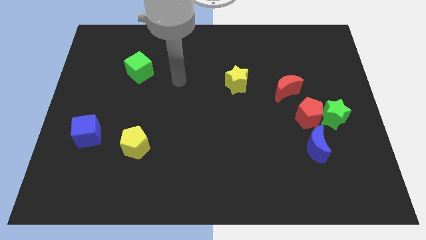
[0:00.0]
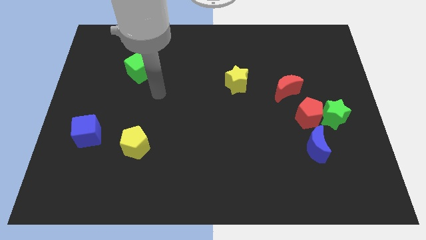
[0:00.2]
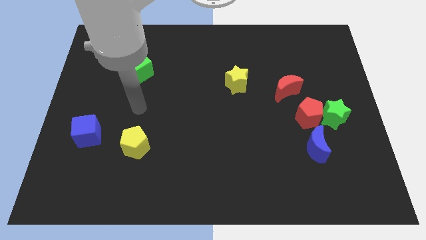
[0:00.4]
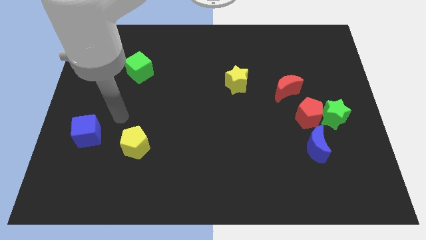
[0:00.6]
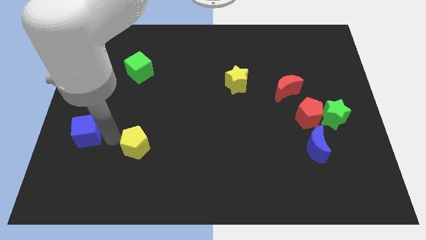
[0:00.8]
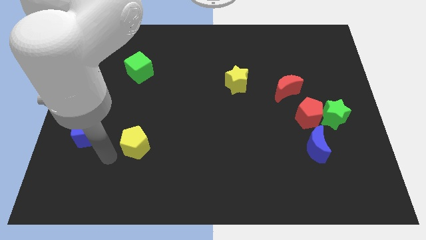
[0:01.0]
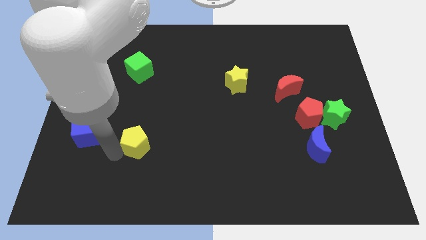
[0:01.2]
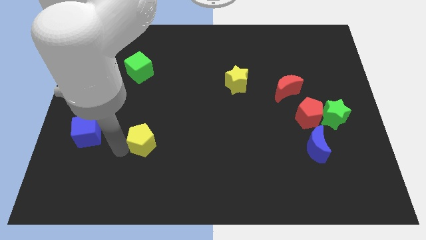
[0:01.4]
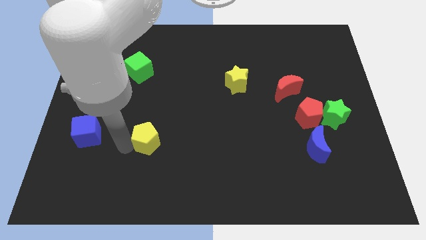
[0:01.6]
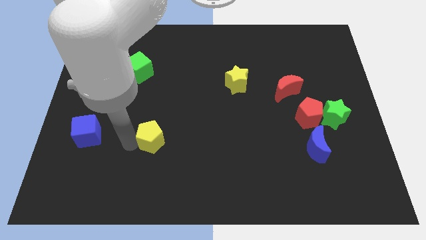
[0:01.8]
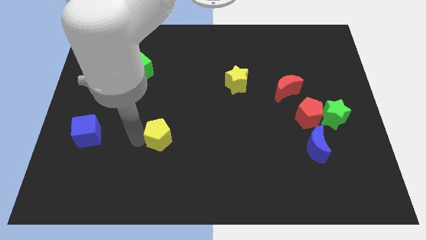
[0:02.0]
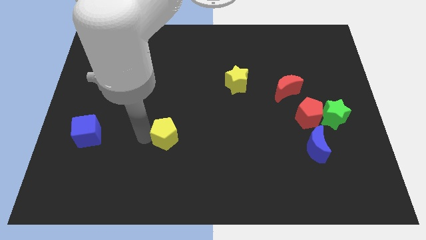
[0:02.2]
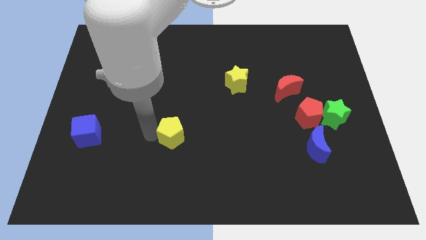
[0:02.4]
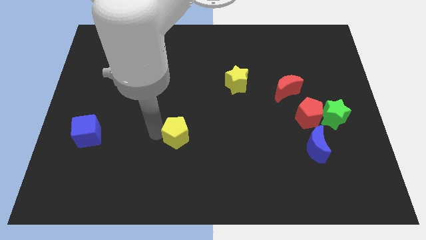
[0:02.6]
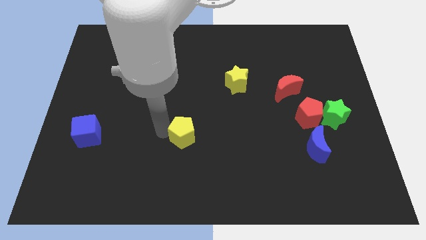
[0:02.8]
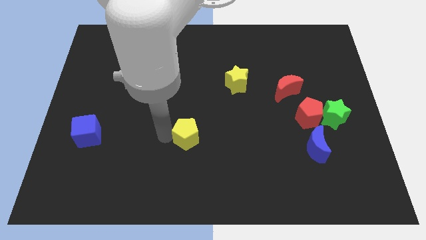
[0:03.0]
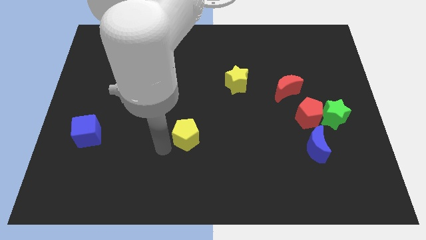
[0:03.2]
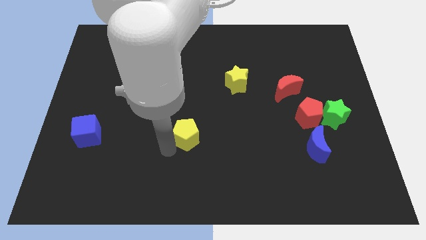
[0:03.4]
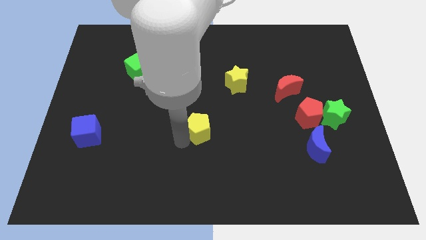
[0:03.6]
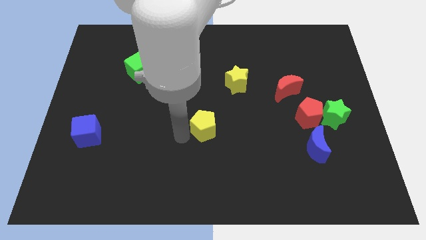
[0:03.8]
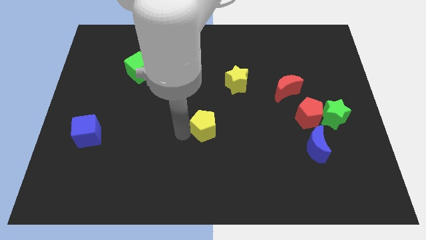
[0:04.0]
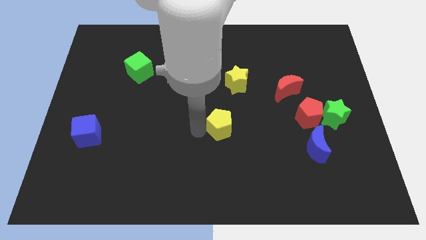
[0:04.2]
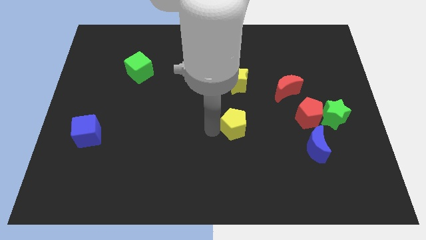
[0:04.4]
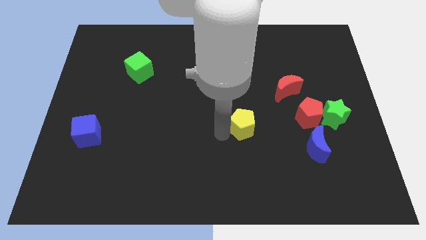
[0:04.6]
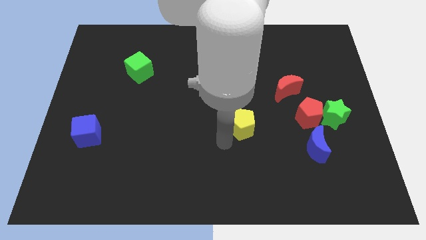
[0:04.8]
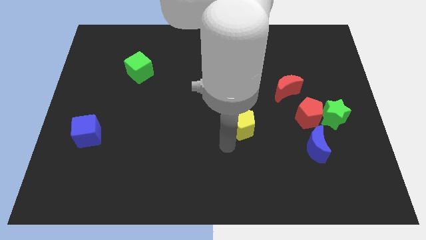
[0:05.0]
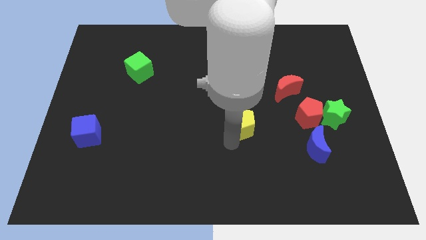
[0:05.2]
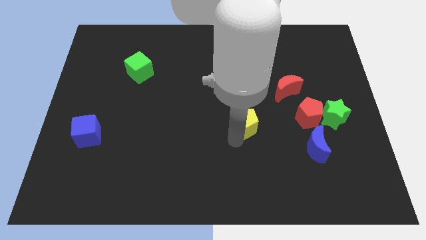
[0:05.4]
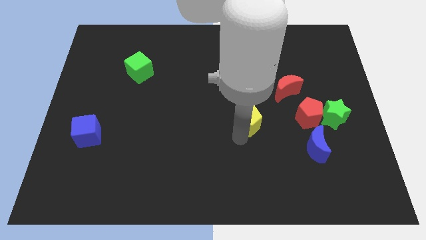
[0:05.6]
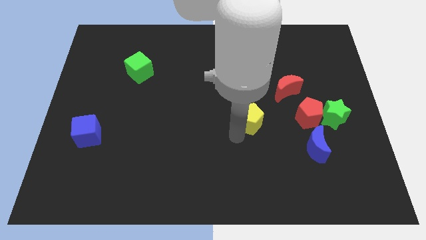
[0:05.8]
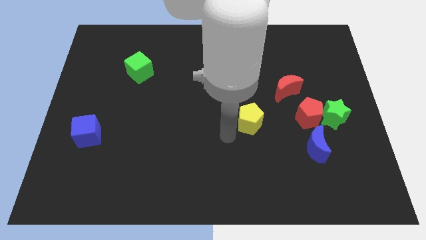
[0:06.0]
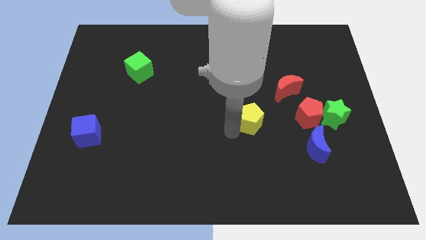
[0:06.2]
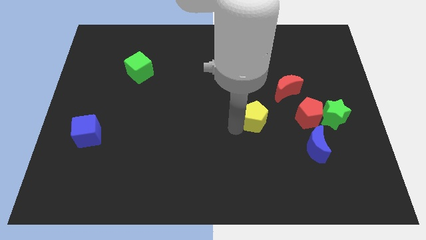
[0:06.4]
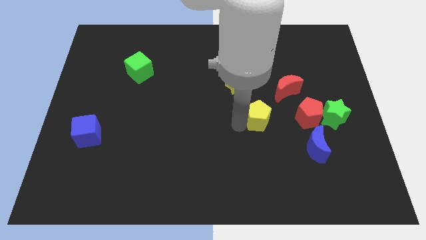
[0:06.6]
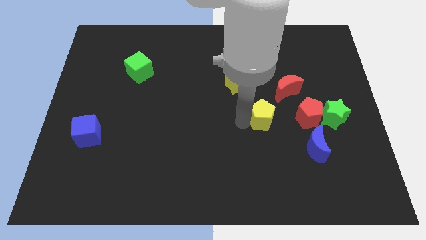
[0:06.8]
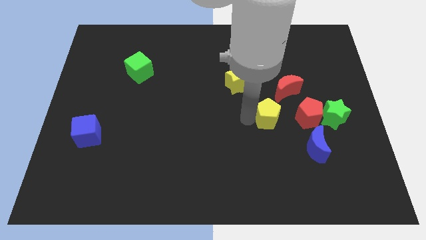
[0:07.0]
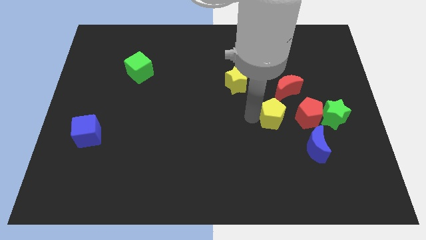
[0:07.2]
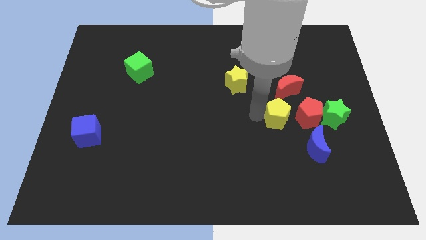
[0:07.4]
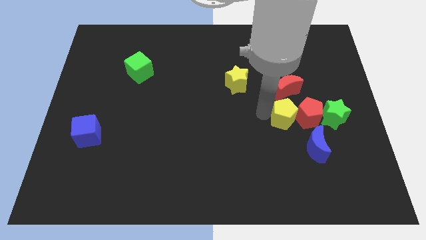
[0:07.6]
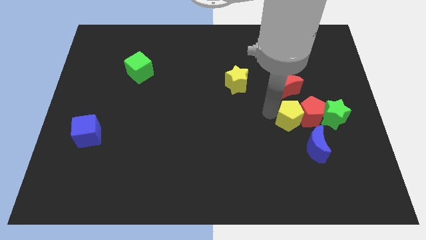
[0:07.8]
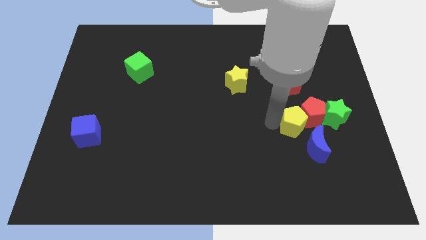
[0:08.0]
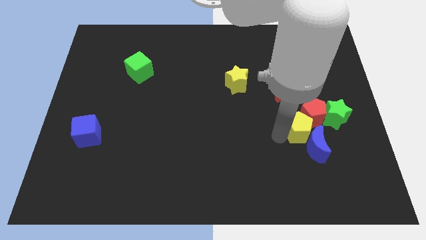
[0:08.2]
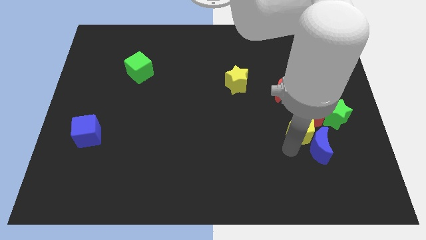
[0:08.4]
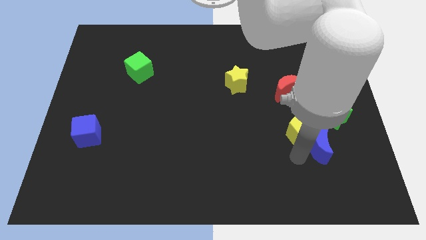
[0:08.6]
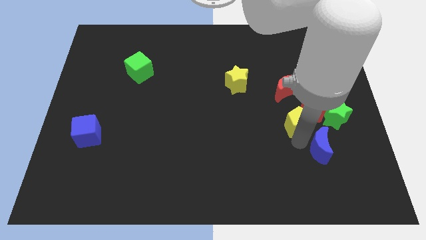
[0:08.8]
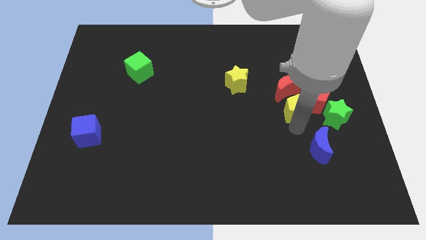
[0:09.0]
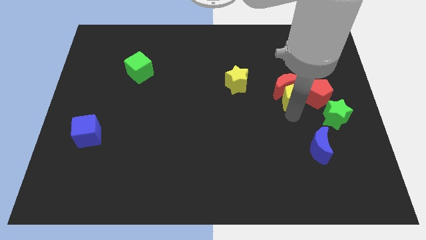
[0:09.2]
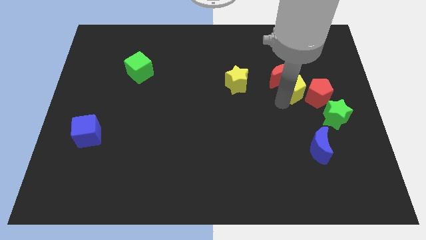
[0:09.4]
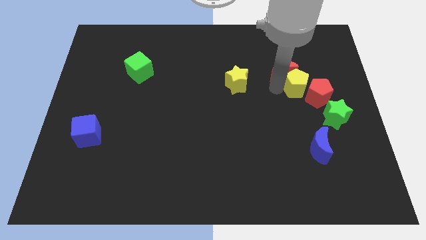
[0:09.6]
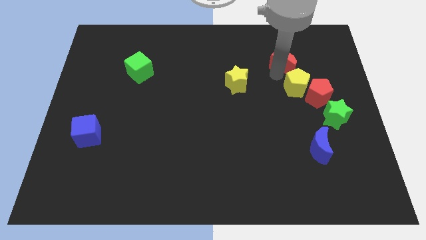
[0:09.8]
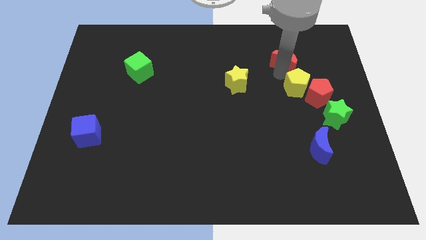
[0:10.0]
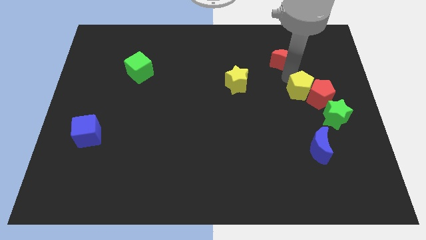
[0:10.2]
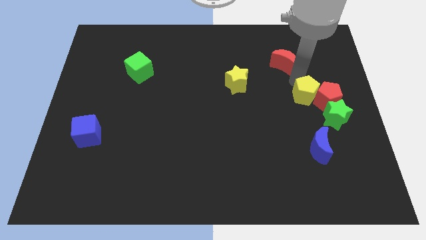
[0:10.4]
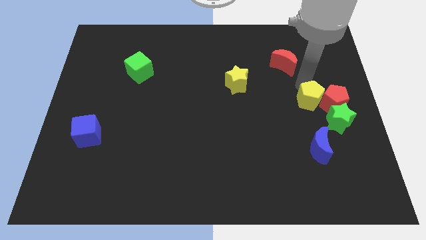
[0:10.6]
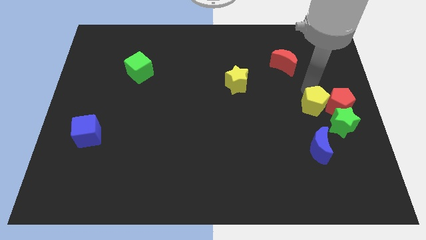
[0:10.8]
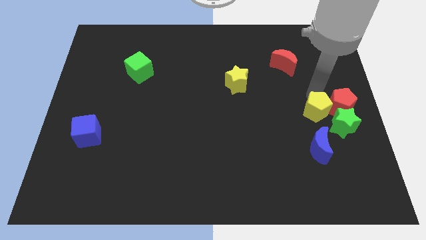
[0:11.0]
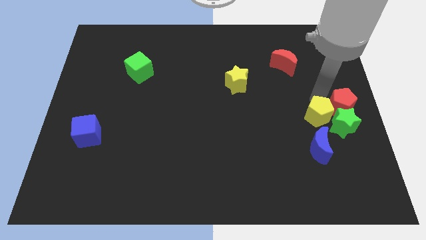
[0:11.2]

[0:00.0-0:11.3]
put the yellow pentagon towards the green star

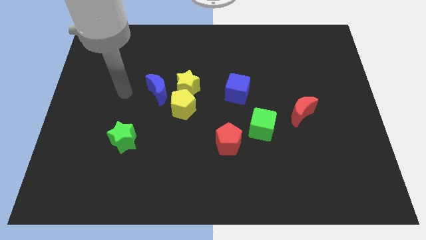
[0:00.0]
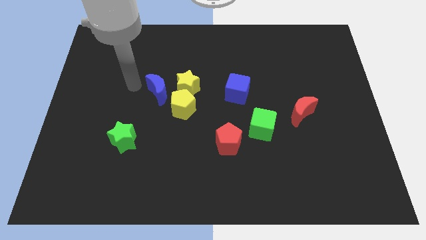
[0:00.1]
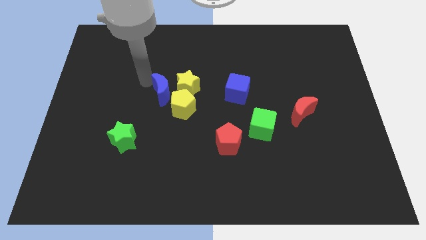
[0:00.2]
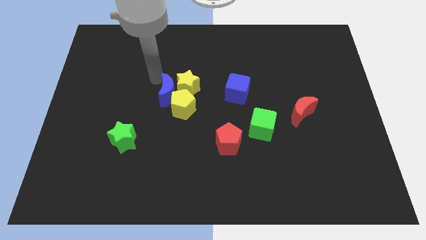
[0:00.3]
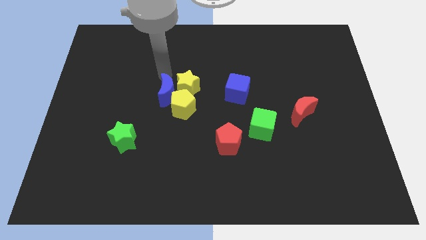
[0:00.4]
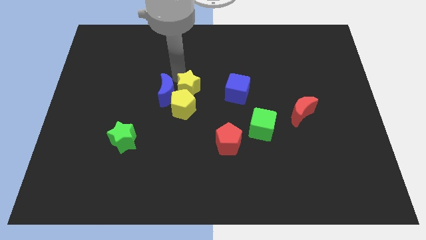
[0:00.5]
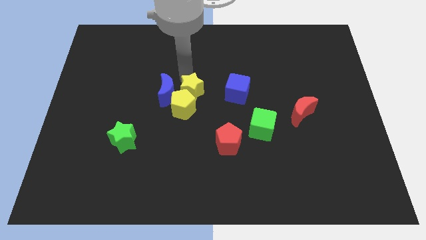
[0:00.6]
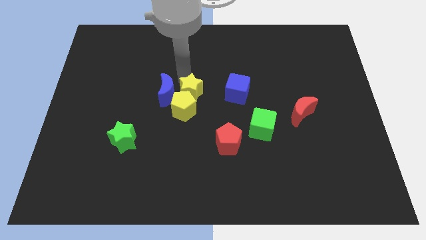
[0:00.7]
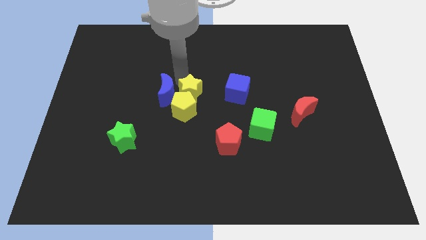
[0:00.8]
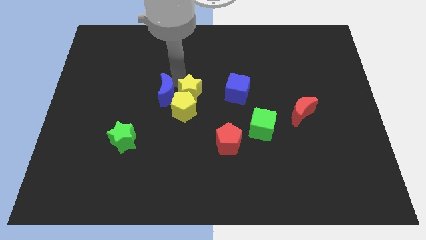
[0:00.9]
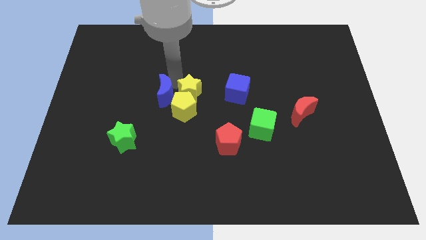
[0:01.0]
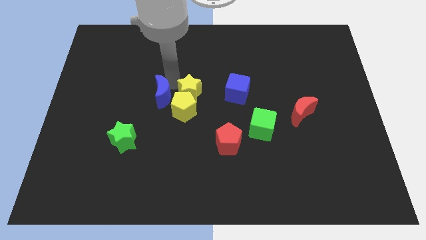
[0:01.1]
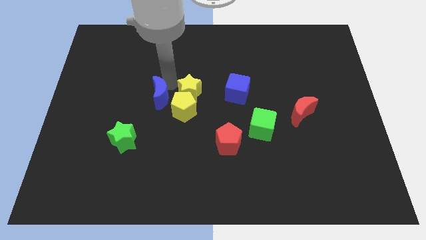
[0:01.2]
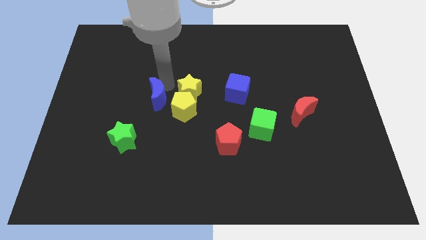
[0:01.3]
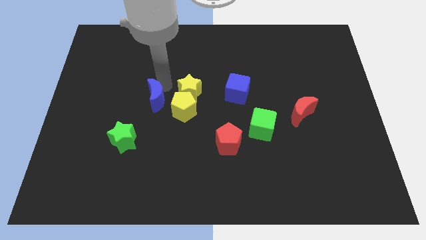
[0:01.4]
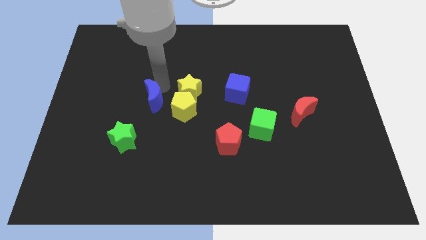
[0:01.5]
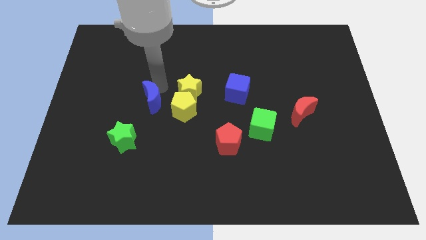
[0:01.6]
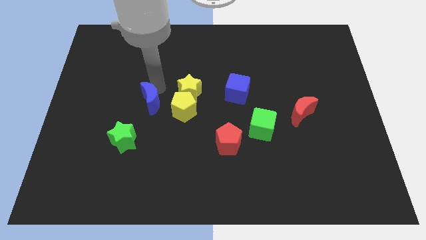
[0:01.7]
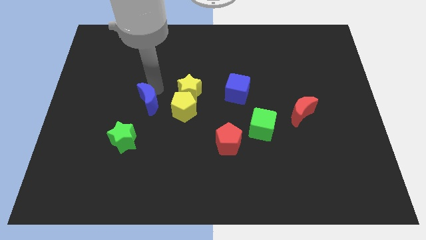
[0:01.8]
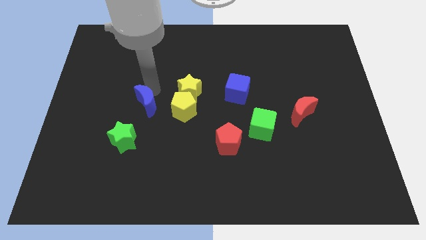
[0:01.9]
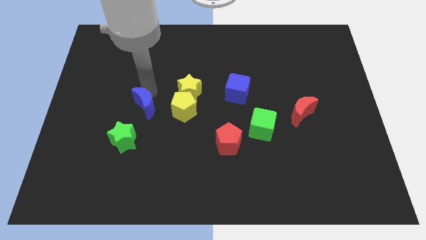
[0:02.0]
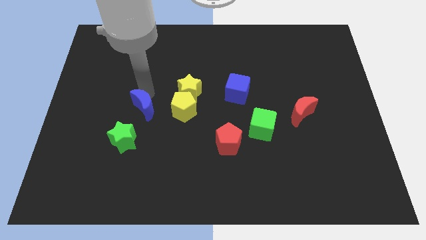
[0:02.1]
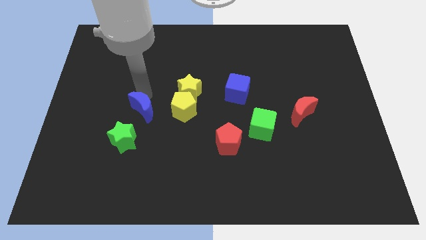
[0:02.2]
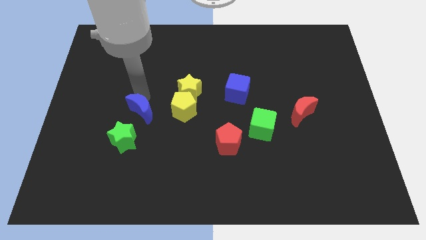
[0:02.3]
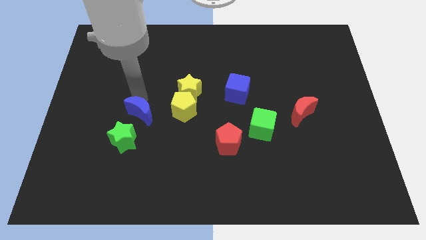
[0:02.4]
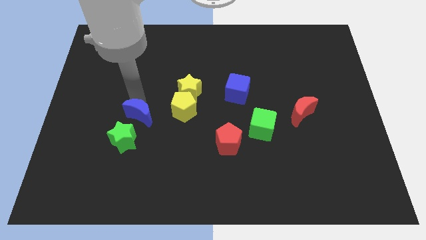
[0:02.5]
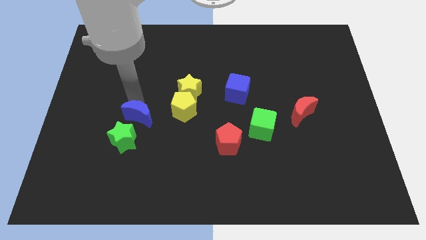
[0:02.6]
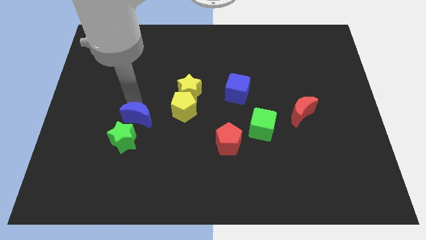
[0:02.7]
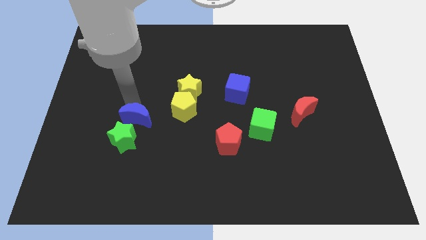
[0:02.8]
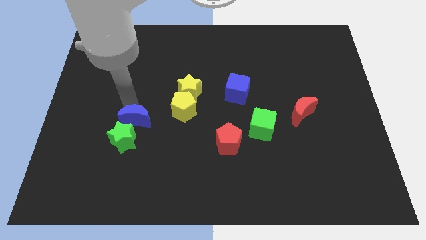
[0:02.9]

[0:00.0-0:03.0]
slide the blue moon towards the green star
